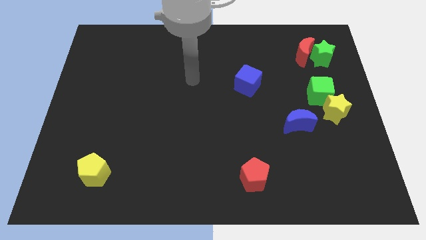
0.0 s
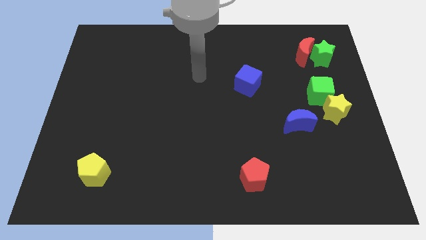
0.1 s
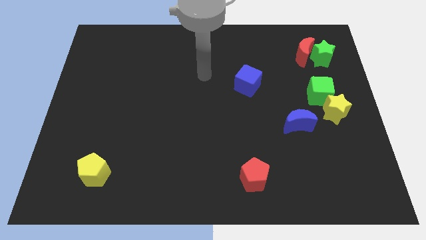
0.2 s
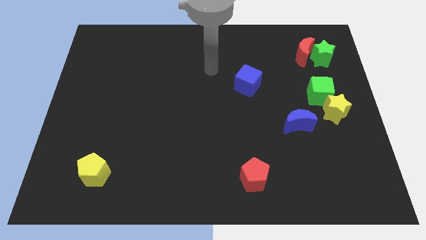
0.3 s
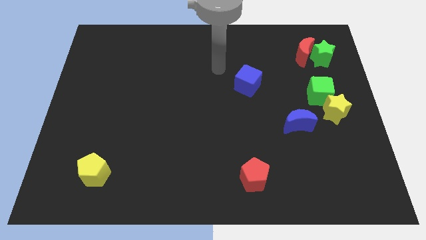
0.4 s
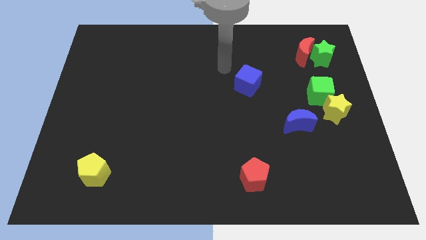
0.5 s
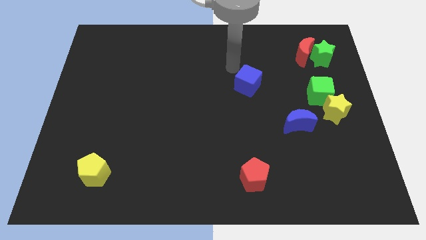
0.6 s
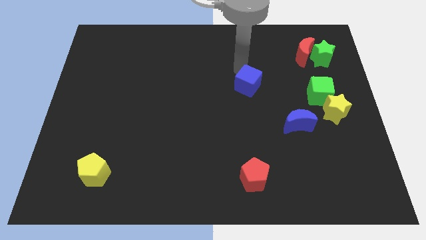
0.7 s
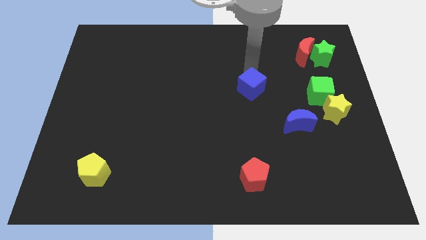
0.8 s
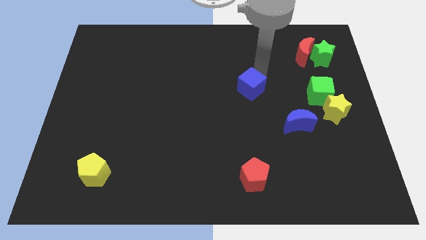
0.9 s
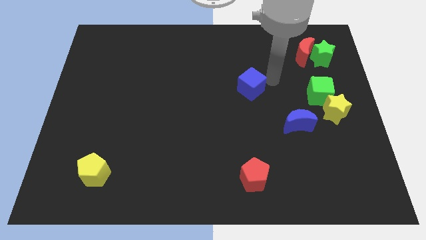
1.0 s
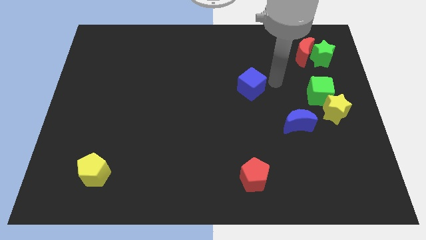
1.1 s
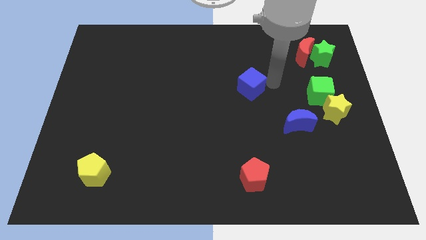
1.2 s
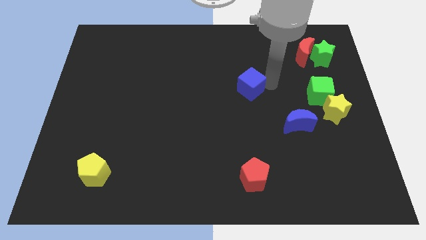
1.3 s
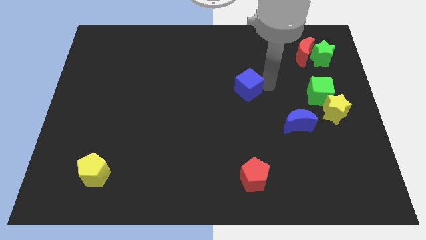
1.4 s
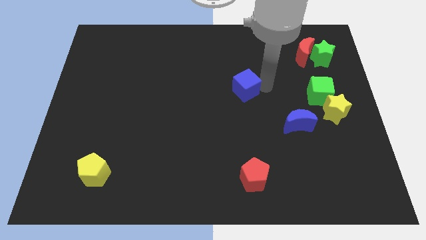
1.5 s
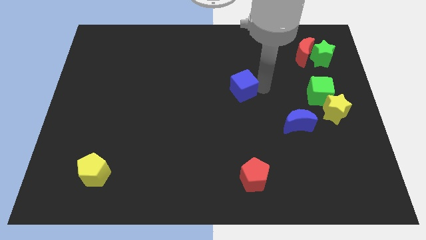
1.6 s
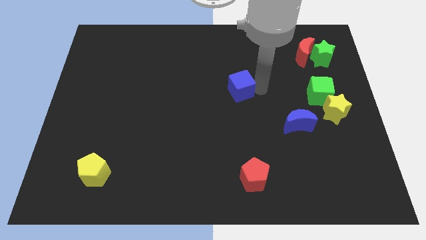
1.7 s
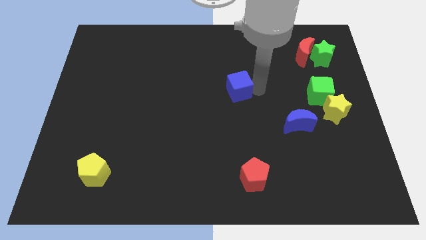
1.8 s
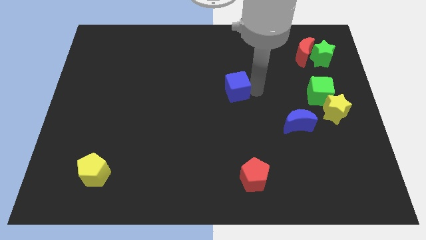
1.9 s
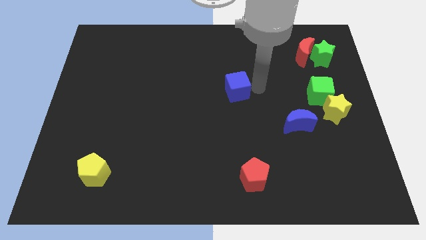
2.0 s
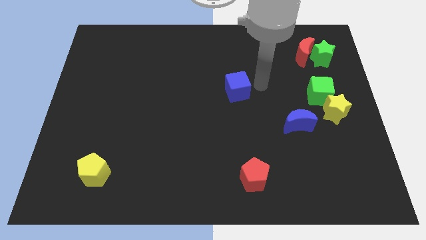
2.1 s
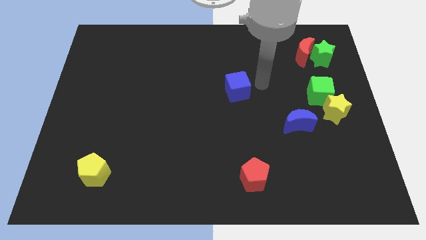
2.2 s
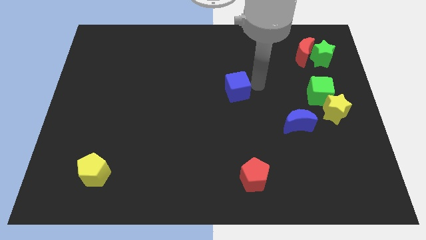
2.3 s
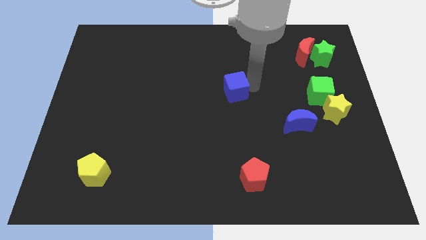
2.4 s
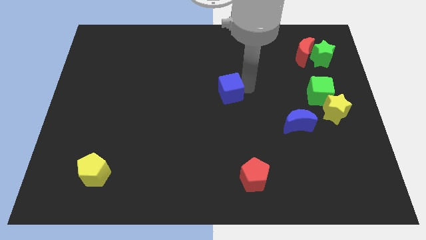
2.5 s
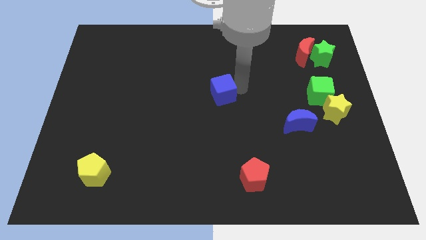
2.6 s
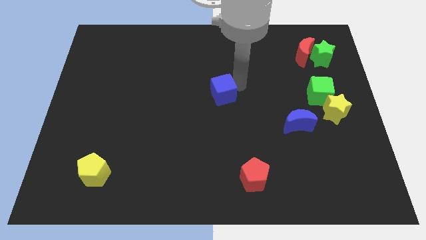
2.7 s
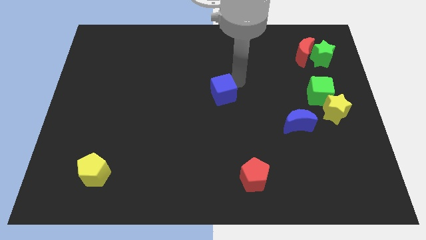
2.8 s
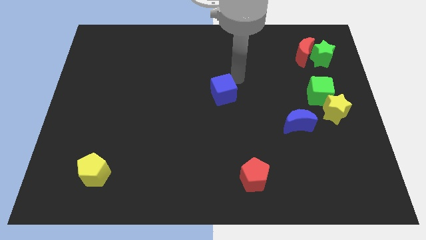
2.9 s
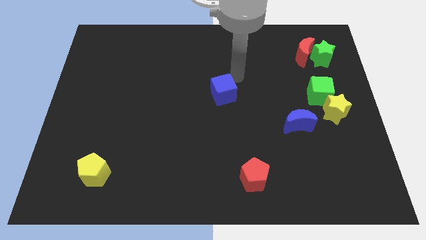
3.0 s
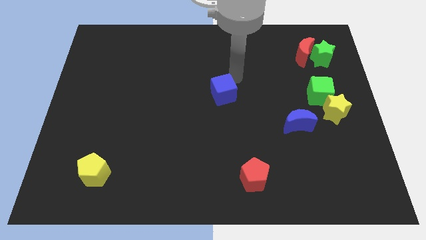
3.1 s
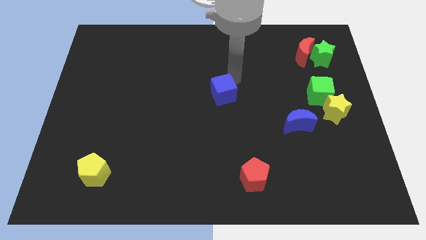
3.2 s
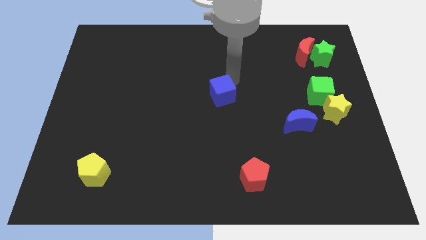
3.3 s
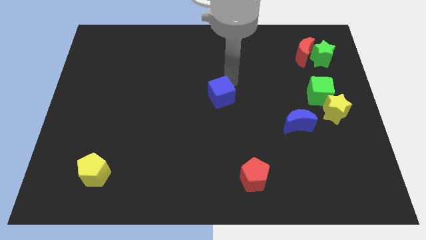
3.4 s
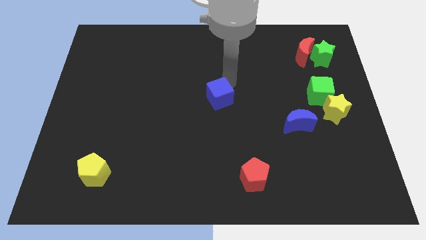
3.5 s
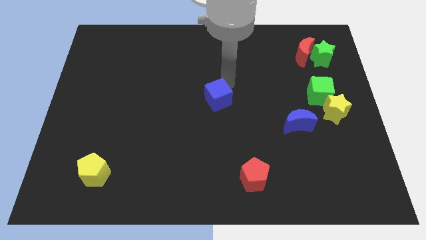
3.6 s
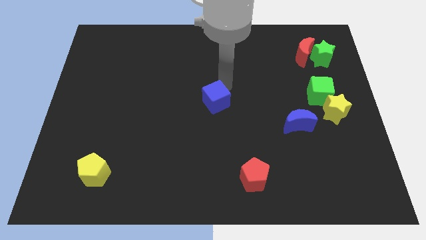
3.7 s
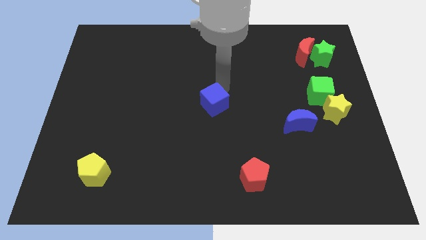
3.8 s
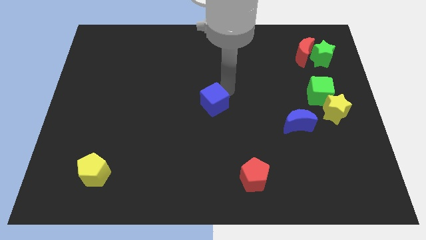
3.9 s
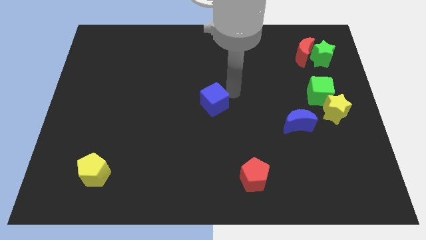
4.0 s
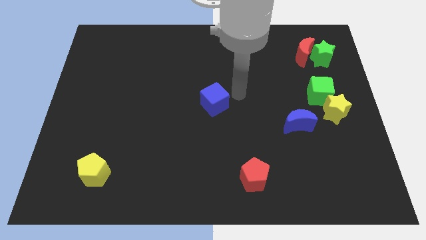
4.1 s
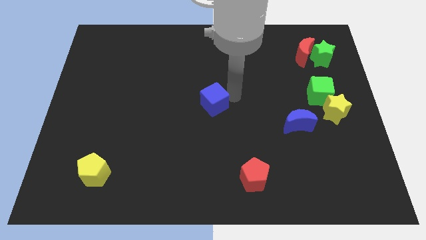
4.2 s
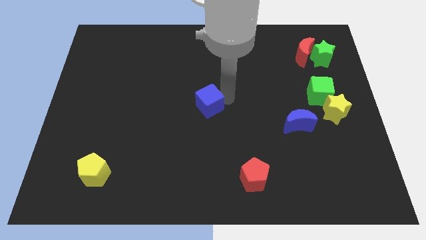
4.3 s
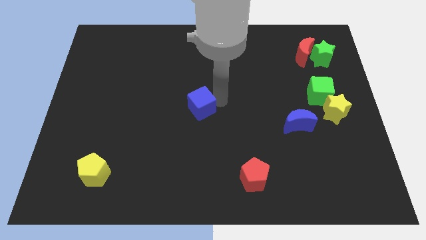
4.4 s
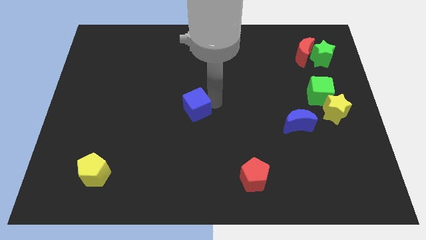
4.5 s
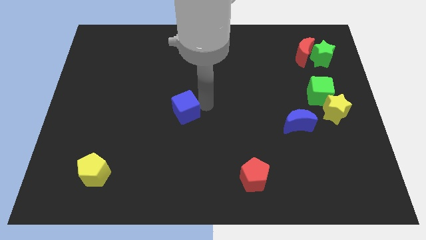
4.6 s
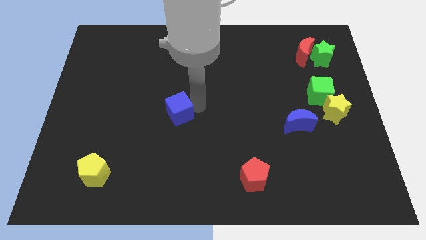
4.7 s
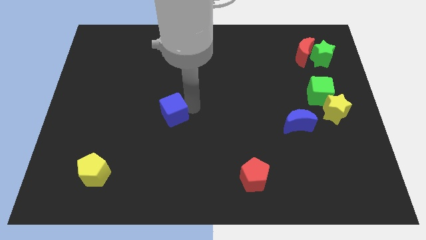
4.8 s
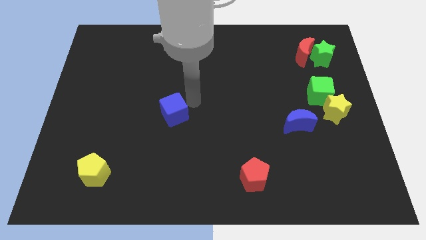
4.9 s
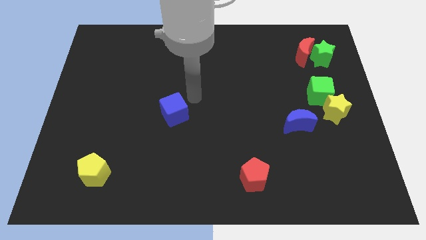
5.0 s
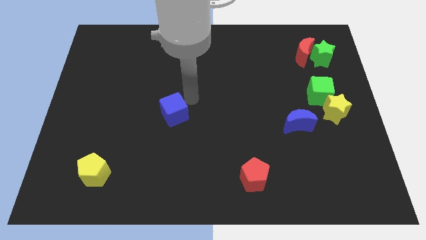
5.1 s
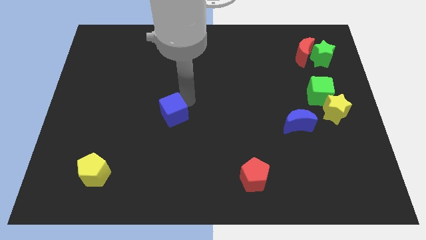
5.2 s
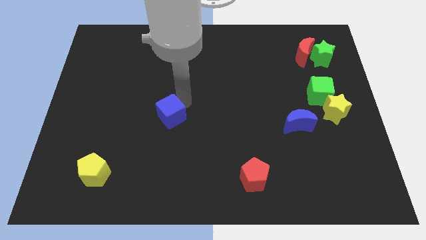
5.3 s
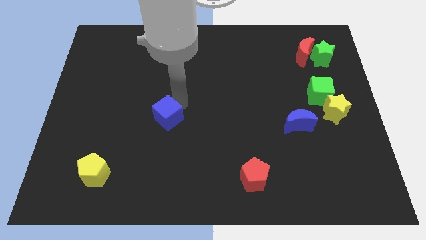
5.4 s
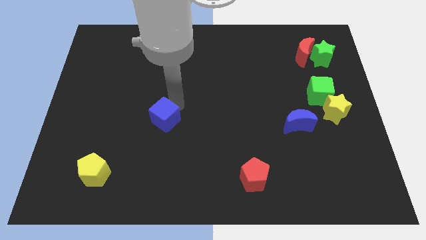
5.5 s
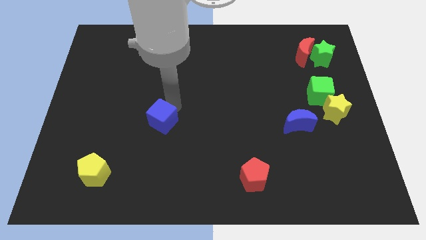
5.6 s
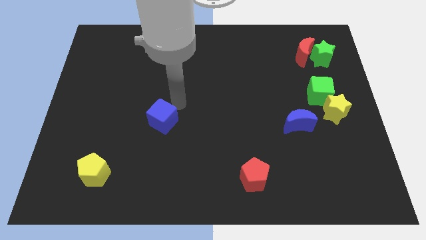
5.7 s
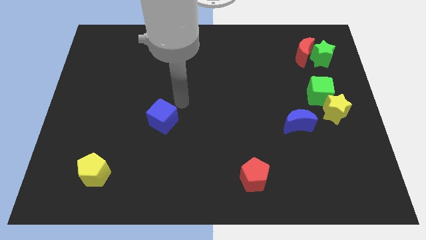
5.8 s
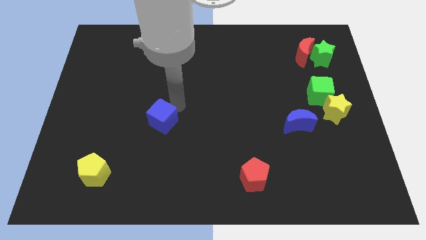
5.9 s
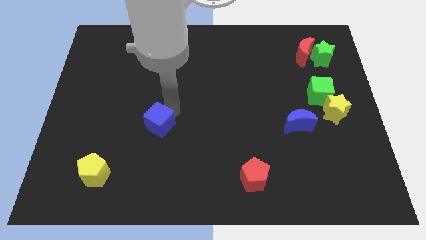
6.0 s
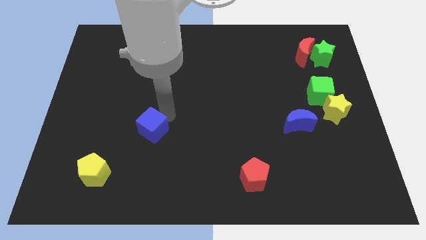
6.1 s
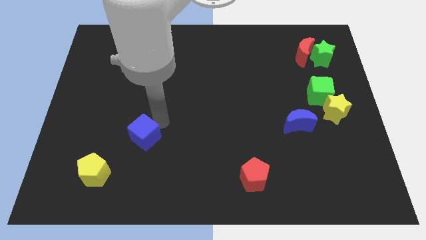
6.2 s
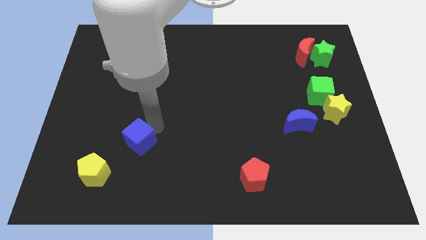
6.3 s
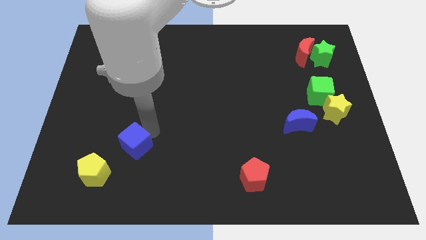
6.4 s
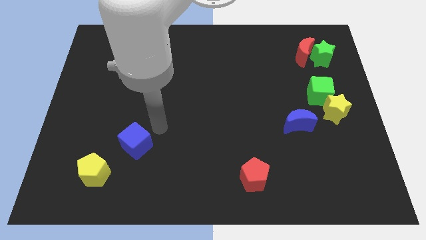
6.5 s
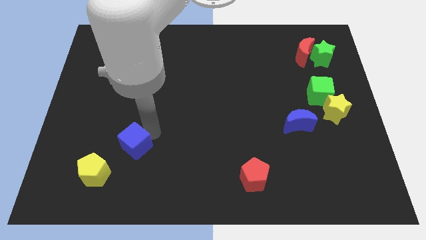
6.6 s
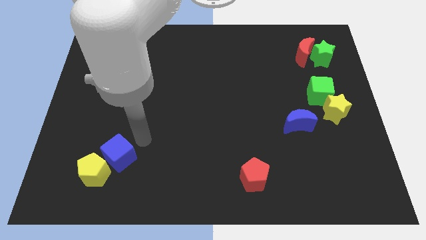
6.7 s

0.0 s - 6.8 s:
move the blue cube to the yellow pentagon

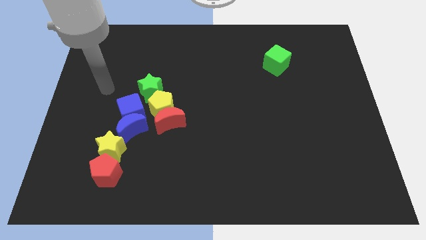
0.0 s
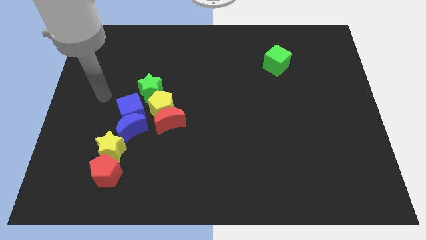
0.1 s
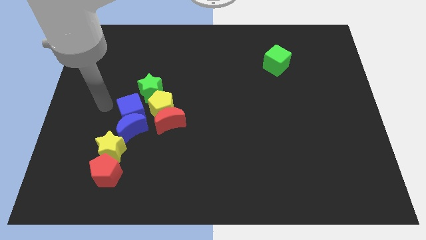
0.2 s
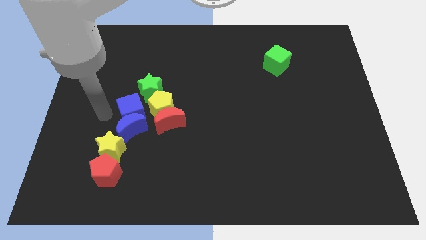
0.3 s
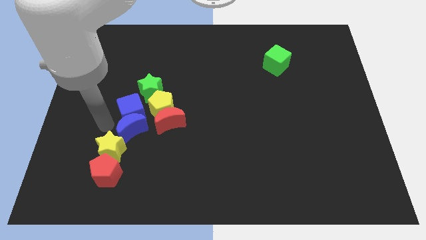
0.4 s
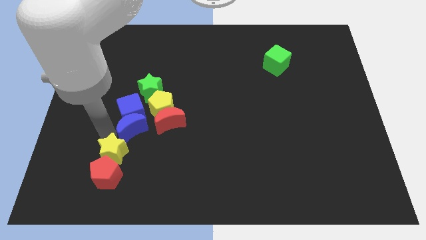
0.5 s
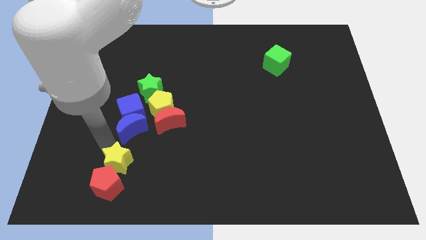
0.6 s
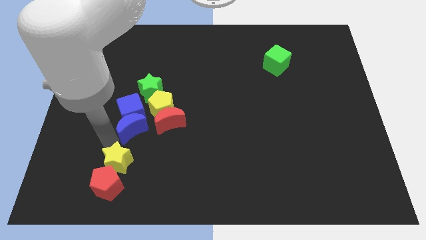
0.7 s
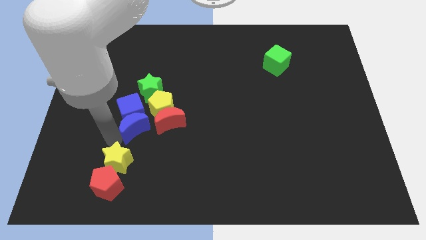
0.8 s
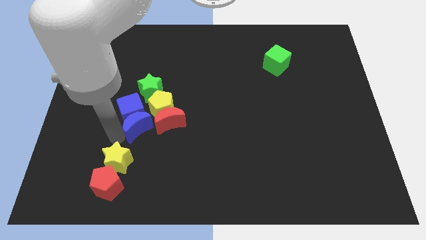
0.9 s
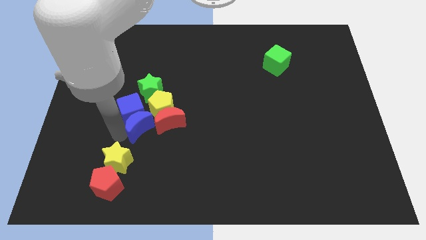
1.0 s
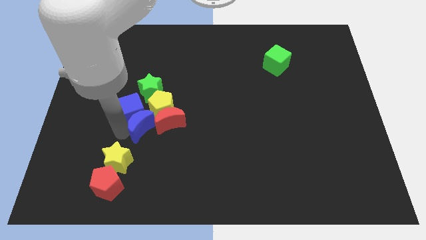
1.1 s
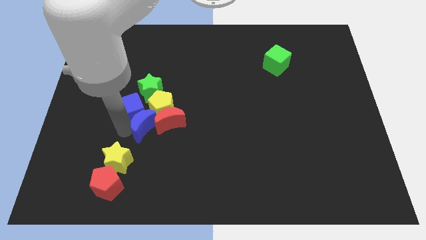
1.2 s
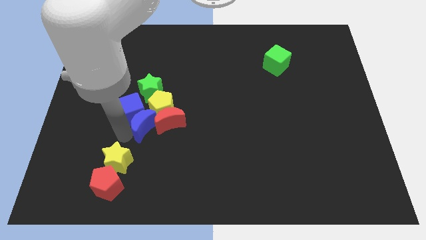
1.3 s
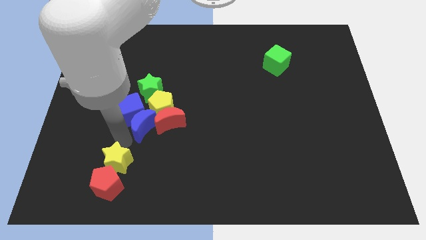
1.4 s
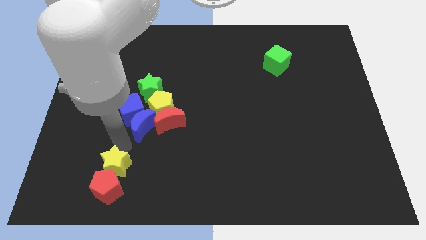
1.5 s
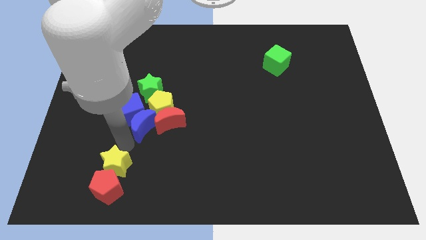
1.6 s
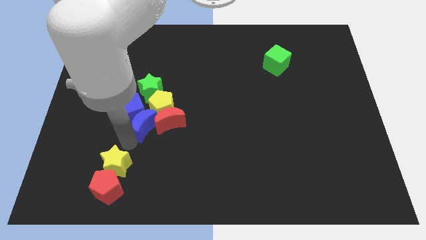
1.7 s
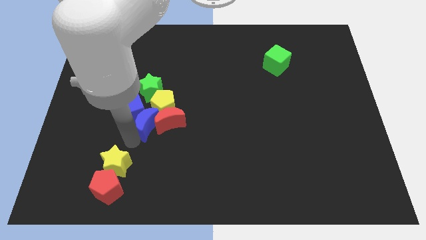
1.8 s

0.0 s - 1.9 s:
push the blue moon next to the yellow pentagon
